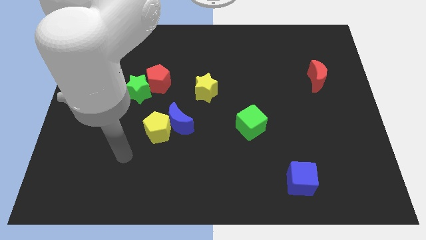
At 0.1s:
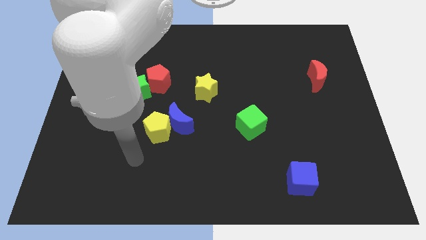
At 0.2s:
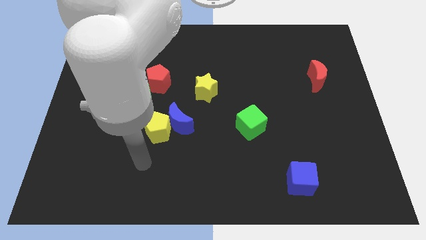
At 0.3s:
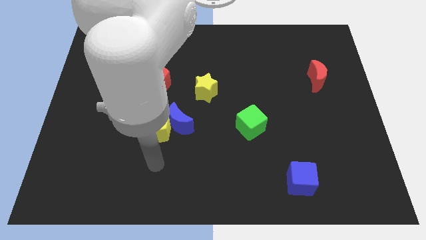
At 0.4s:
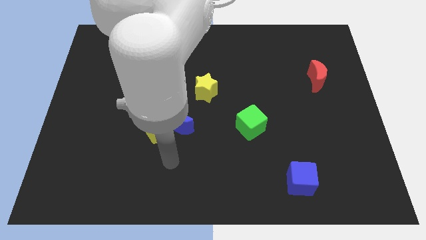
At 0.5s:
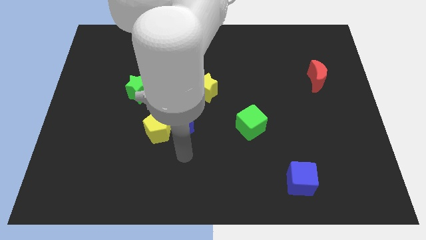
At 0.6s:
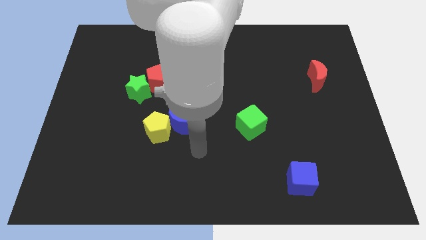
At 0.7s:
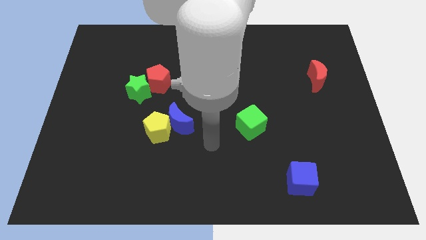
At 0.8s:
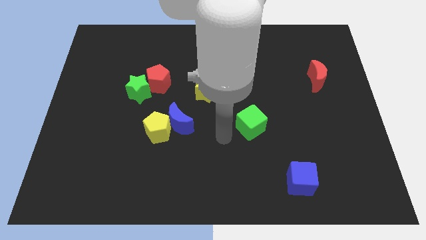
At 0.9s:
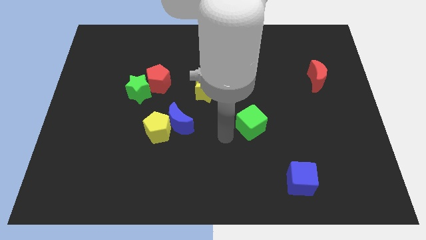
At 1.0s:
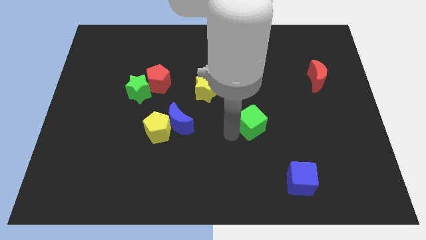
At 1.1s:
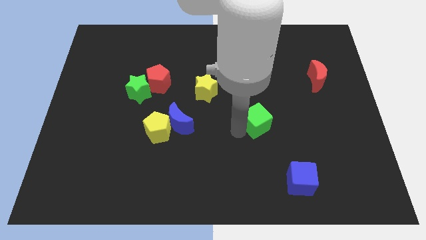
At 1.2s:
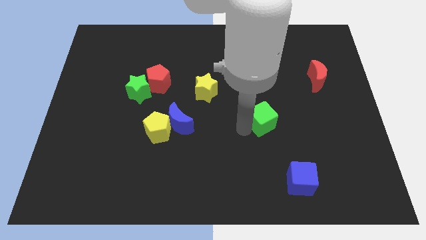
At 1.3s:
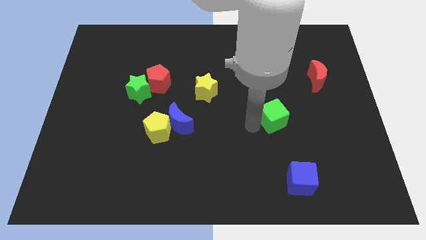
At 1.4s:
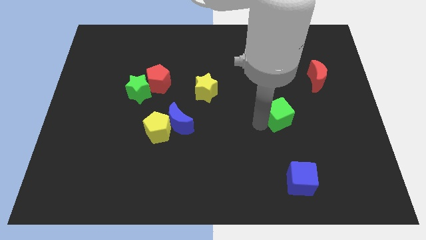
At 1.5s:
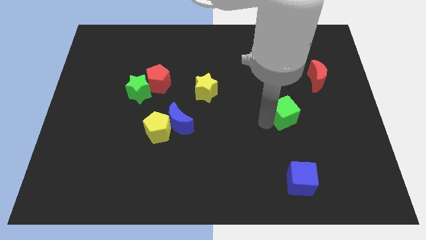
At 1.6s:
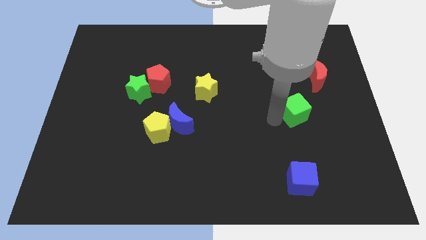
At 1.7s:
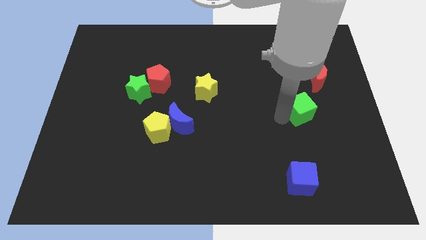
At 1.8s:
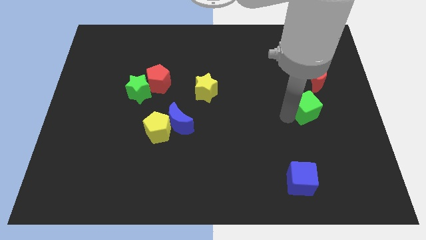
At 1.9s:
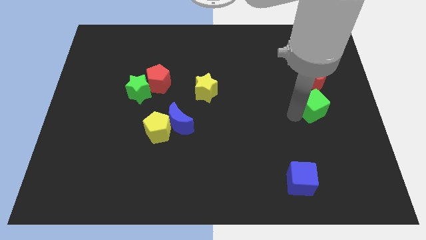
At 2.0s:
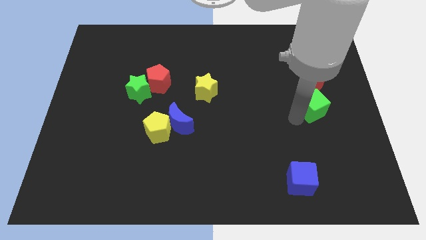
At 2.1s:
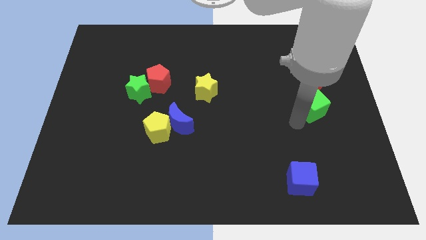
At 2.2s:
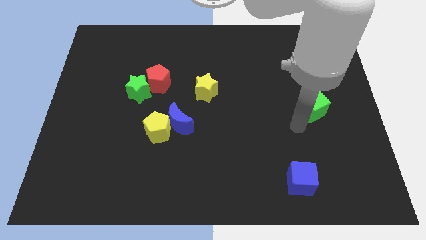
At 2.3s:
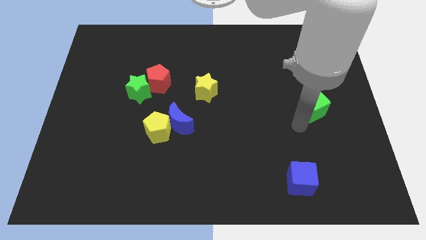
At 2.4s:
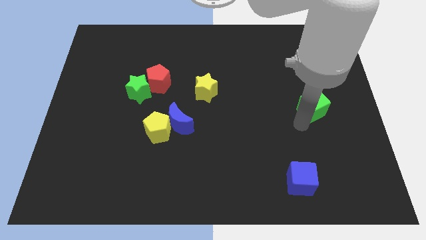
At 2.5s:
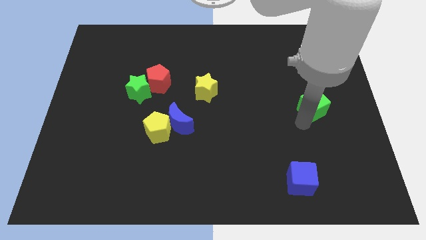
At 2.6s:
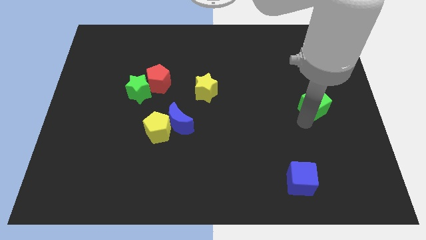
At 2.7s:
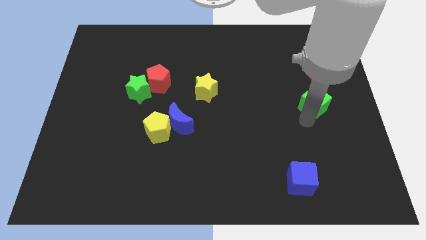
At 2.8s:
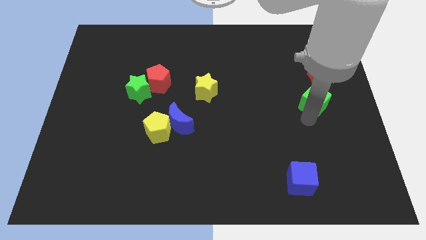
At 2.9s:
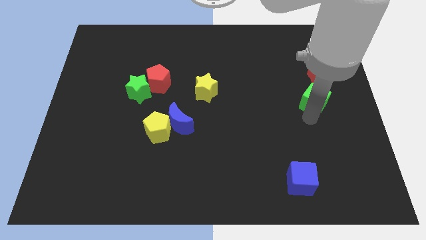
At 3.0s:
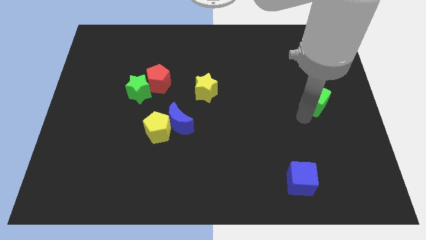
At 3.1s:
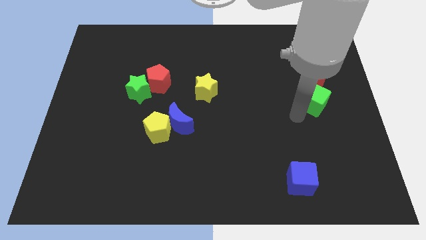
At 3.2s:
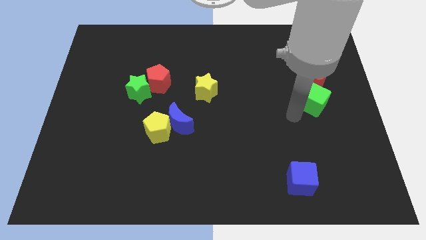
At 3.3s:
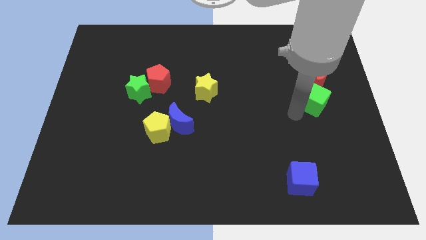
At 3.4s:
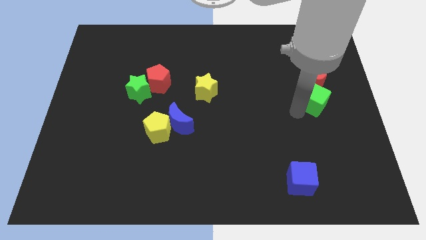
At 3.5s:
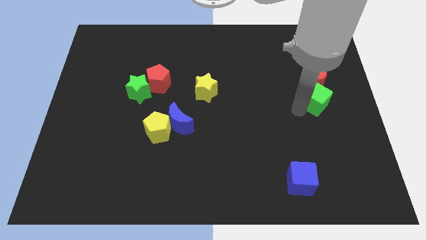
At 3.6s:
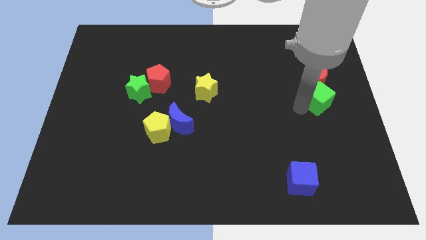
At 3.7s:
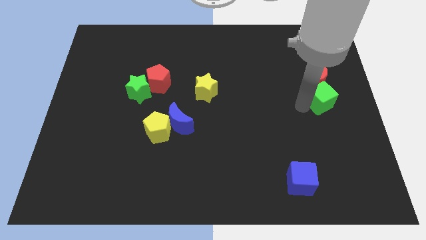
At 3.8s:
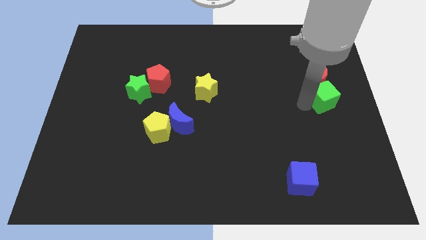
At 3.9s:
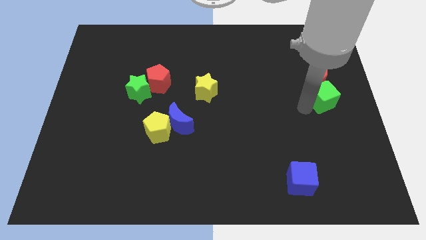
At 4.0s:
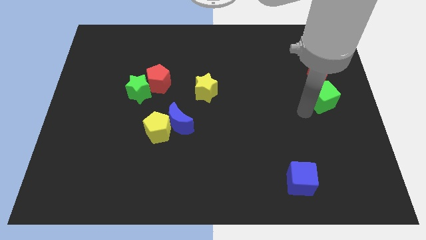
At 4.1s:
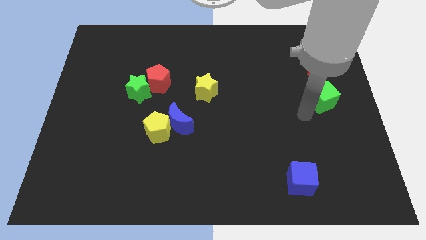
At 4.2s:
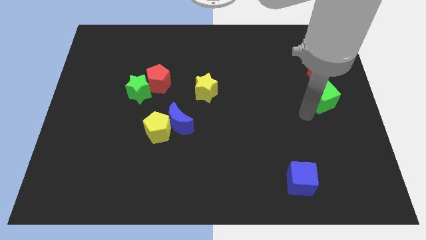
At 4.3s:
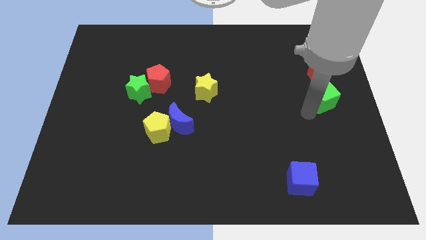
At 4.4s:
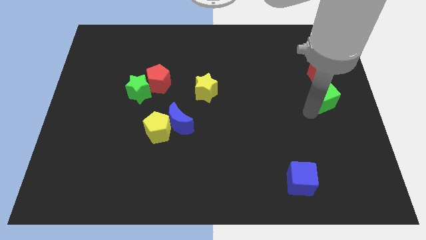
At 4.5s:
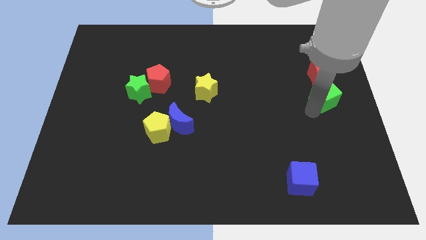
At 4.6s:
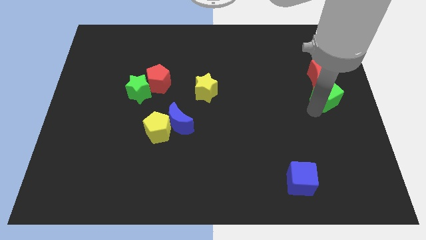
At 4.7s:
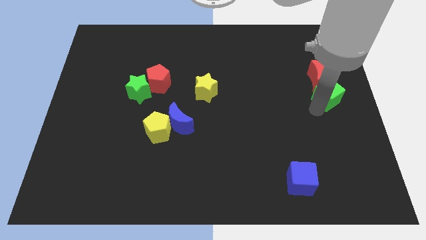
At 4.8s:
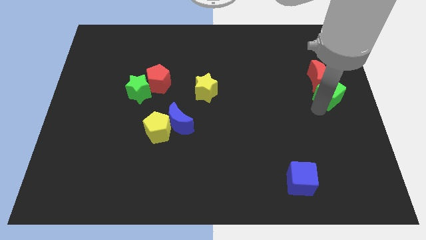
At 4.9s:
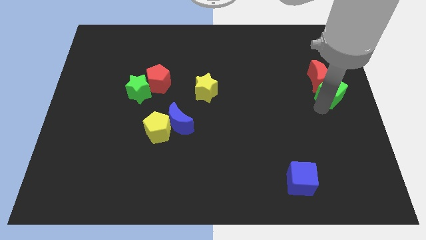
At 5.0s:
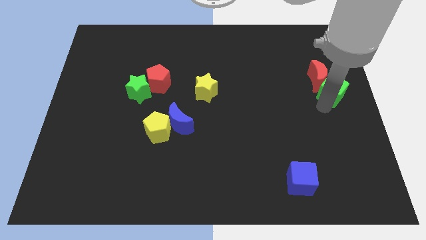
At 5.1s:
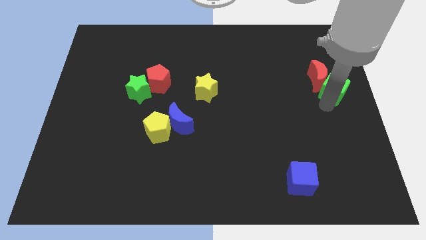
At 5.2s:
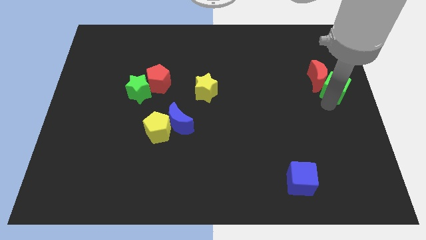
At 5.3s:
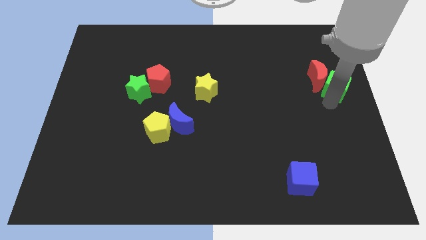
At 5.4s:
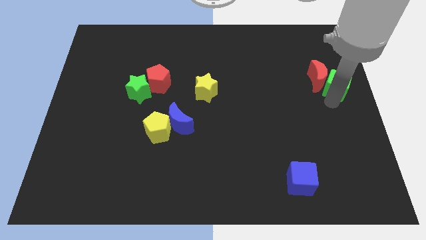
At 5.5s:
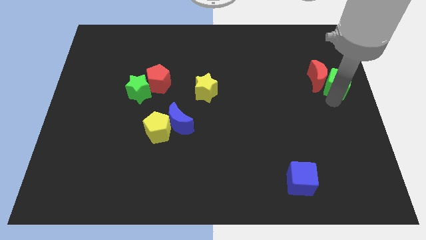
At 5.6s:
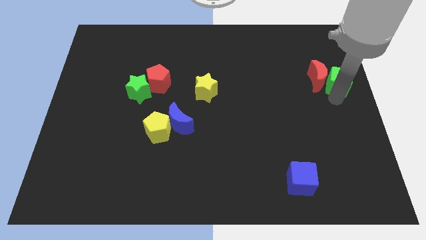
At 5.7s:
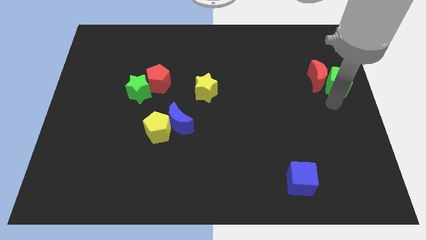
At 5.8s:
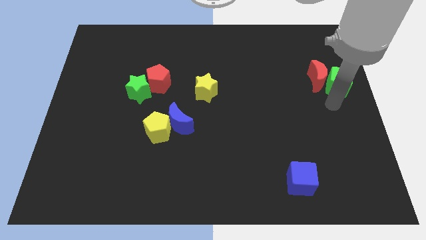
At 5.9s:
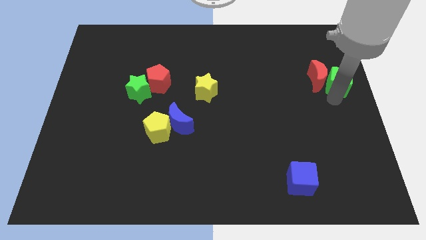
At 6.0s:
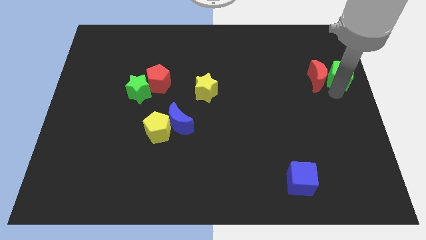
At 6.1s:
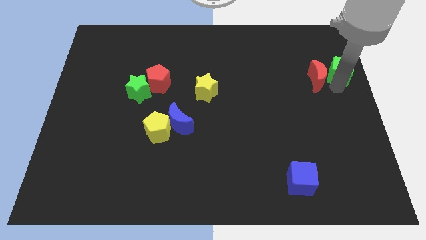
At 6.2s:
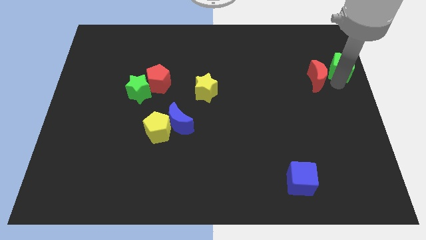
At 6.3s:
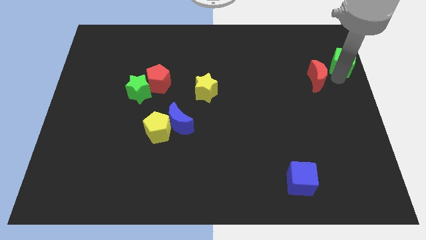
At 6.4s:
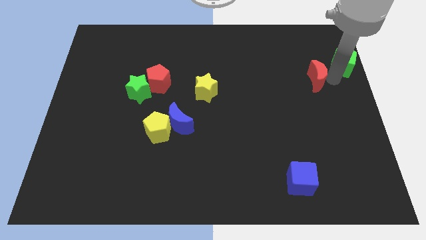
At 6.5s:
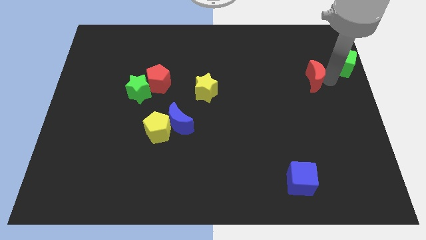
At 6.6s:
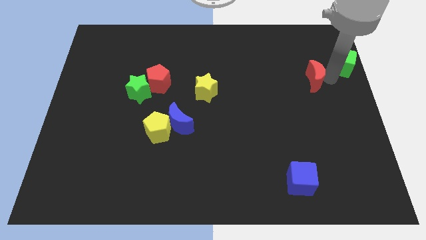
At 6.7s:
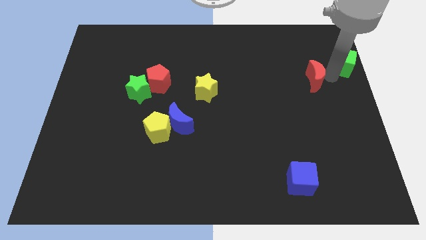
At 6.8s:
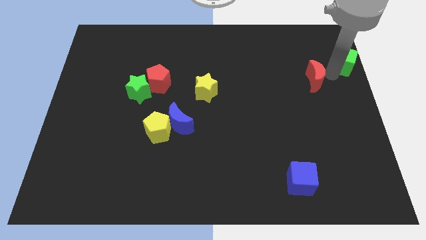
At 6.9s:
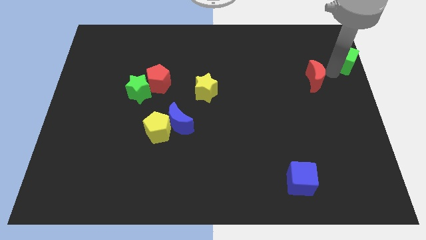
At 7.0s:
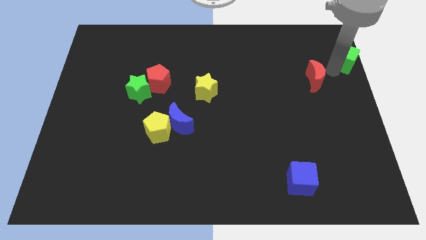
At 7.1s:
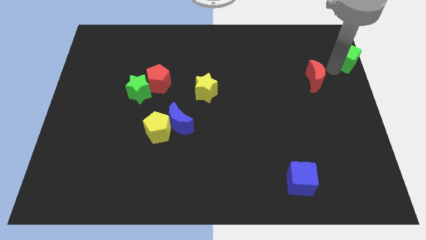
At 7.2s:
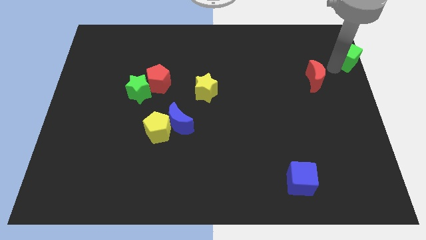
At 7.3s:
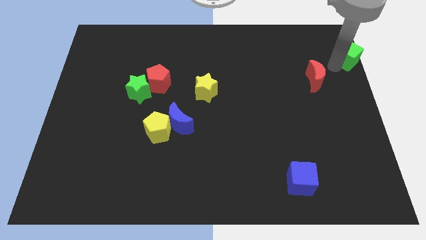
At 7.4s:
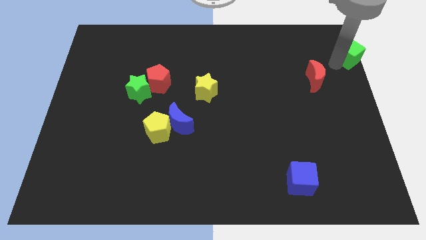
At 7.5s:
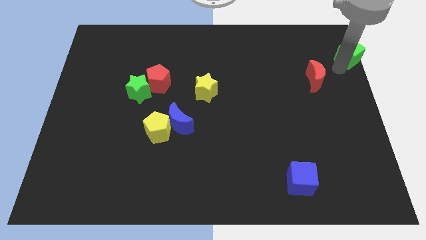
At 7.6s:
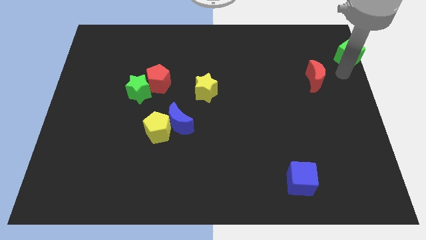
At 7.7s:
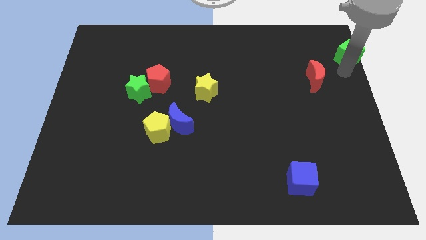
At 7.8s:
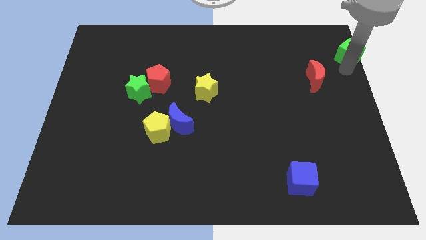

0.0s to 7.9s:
put the green cube to the top right corner

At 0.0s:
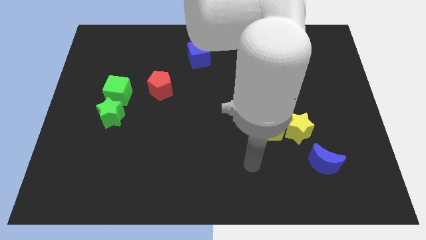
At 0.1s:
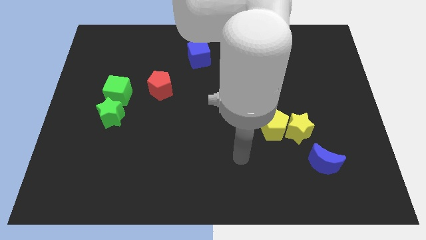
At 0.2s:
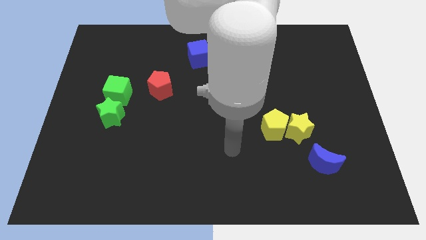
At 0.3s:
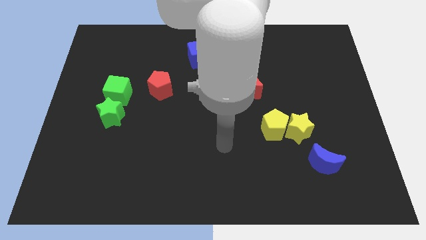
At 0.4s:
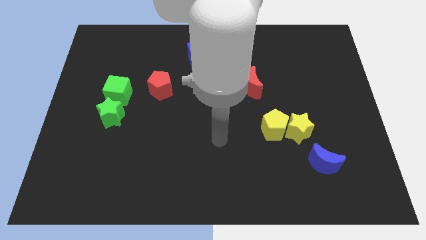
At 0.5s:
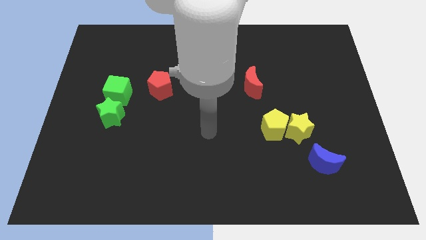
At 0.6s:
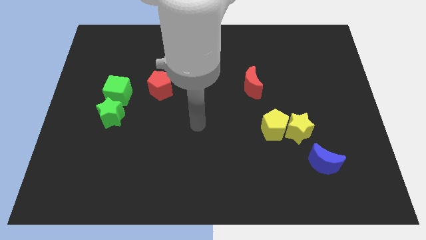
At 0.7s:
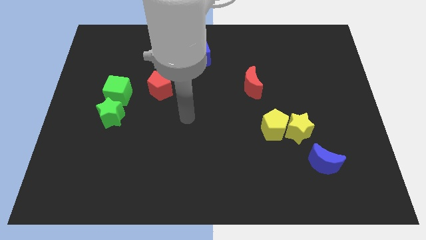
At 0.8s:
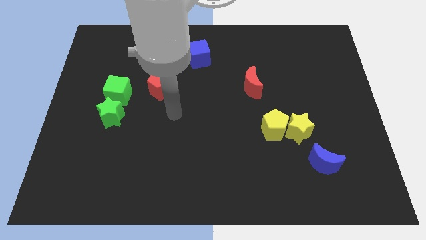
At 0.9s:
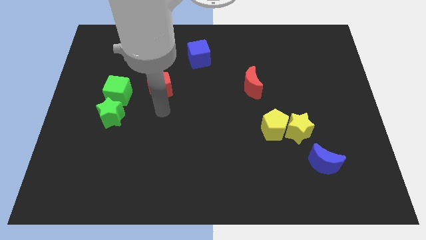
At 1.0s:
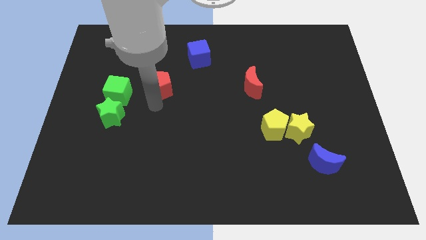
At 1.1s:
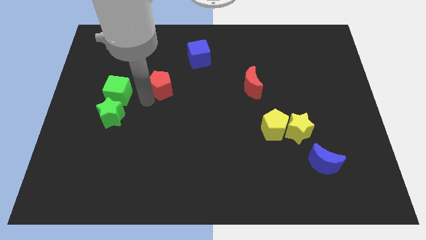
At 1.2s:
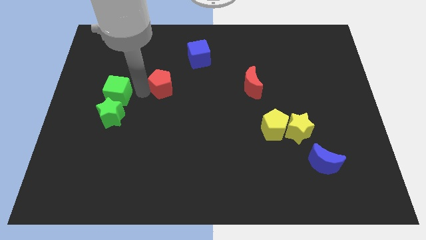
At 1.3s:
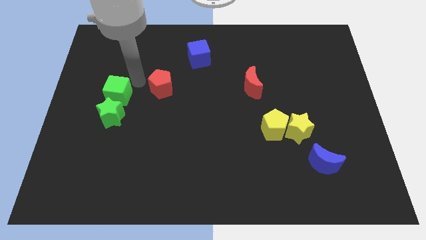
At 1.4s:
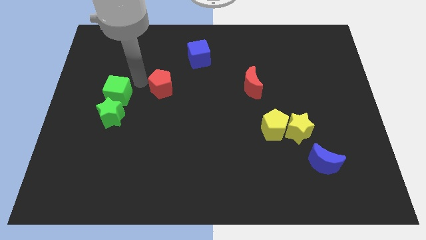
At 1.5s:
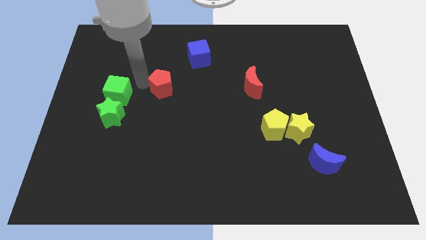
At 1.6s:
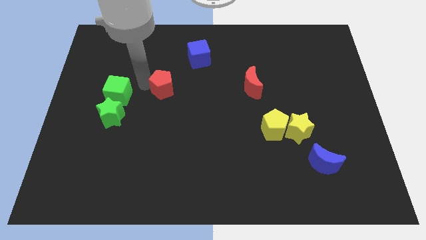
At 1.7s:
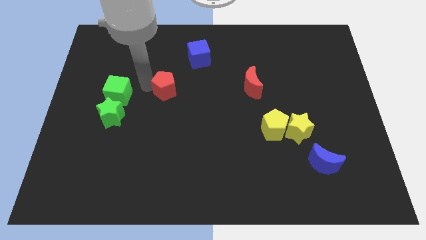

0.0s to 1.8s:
push the red pentagon to the middle of the board
